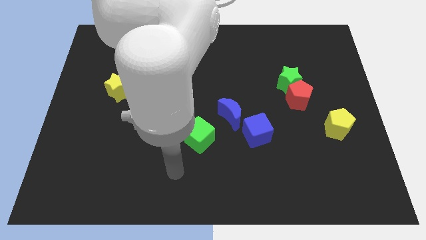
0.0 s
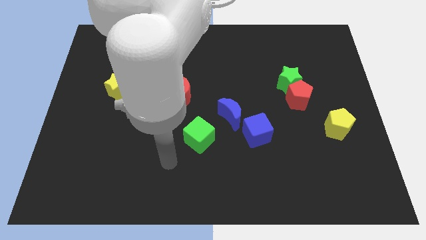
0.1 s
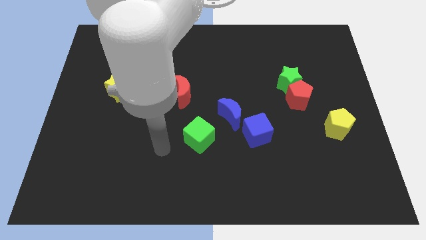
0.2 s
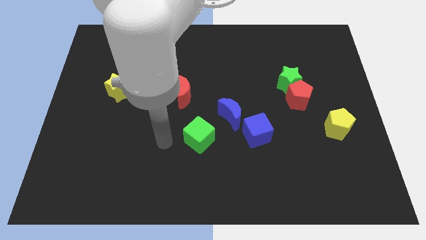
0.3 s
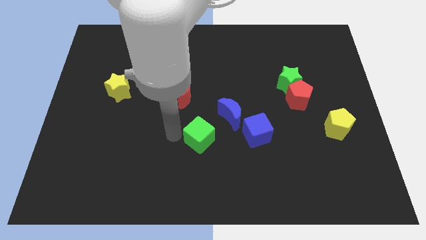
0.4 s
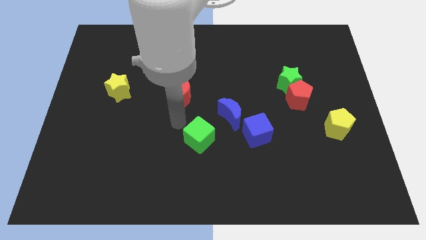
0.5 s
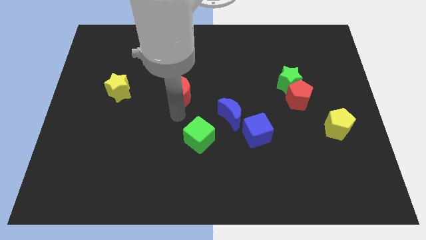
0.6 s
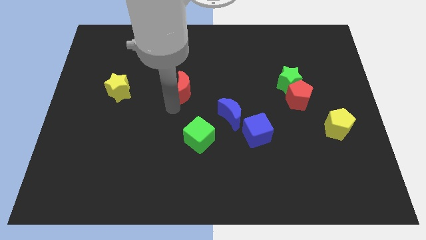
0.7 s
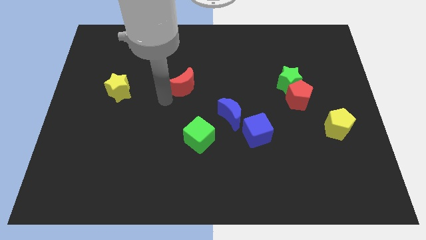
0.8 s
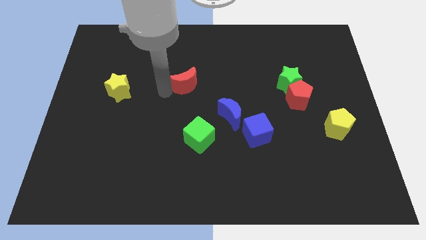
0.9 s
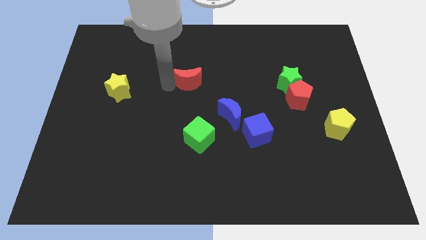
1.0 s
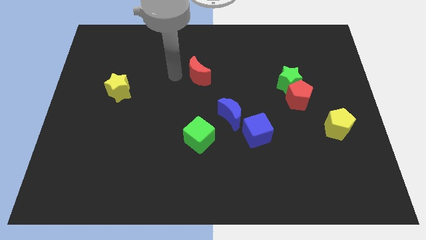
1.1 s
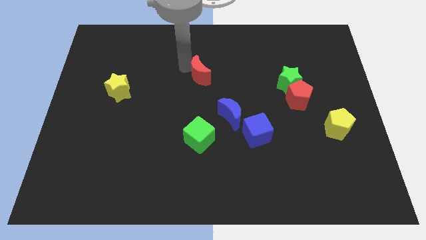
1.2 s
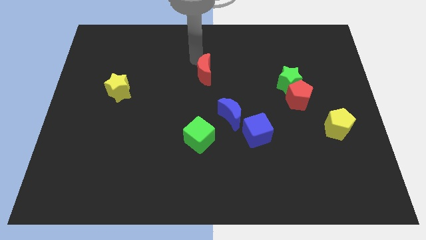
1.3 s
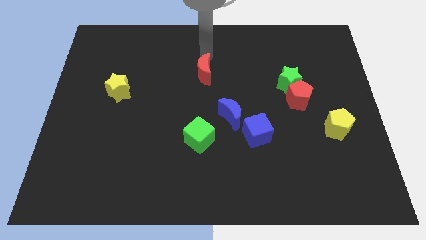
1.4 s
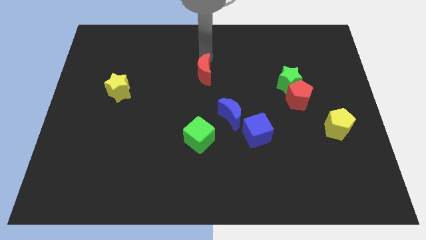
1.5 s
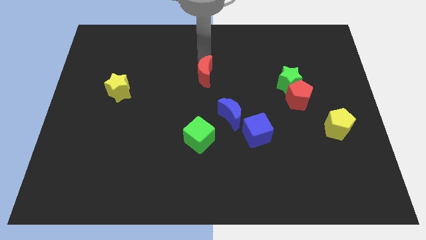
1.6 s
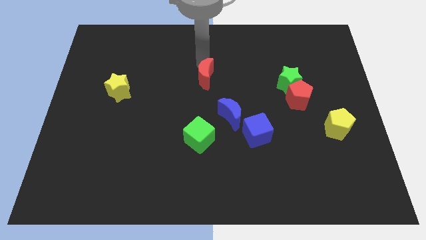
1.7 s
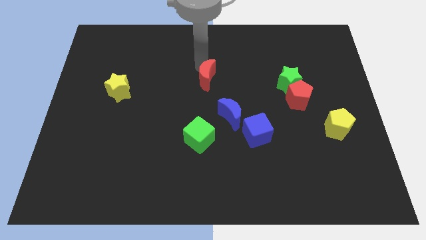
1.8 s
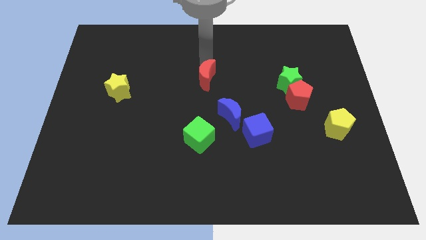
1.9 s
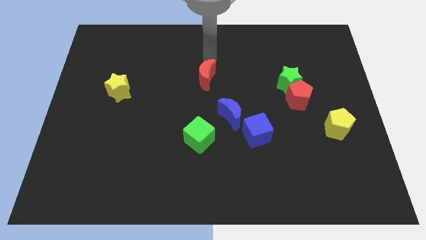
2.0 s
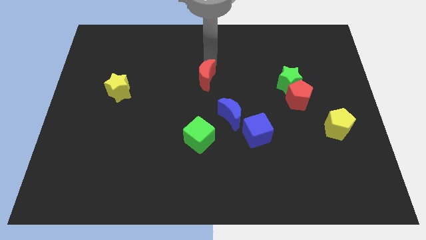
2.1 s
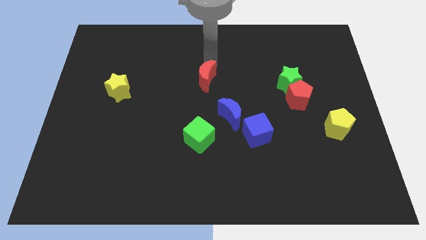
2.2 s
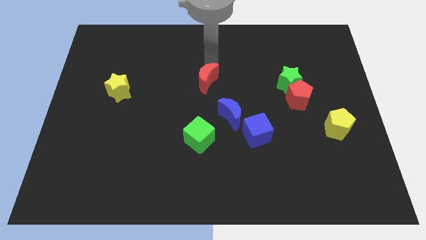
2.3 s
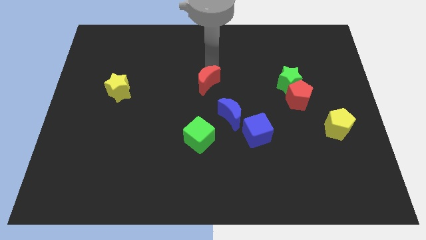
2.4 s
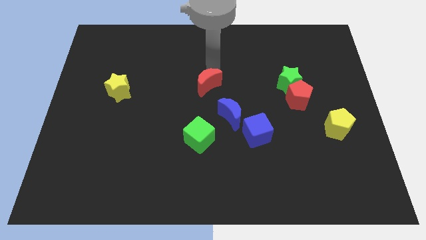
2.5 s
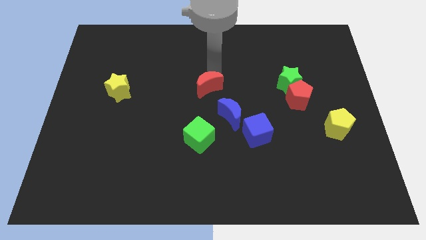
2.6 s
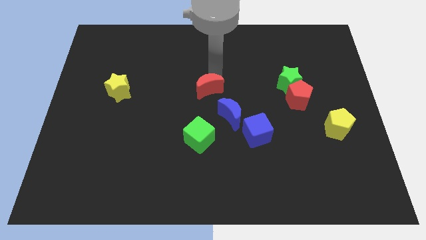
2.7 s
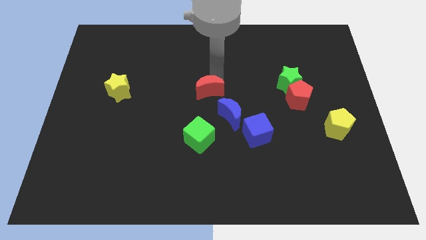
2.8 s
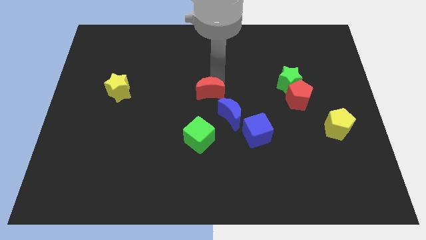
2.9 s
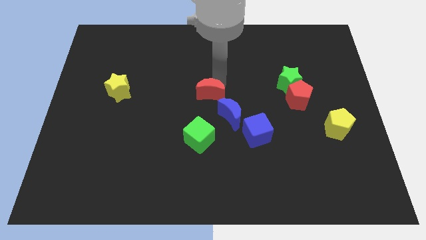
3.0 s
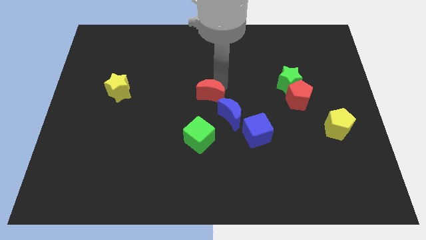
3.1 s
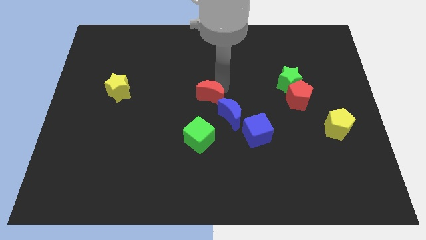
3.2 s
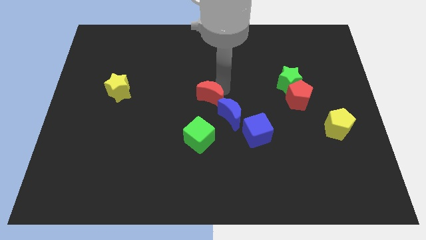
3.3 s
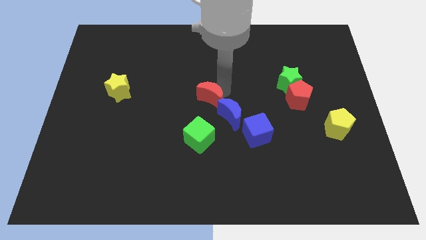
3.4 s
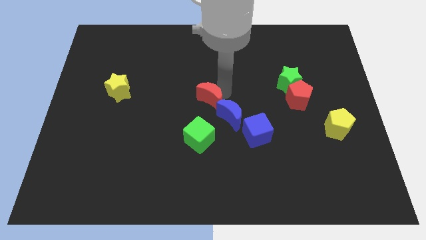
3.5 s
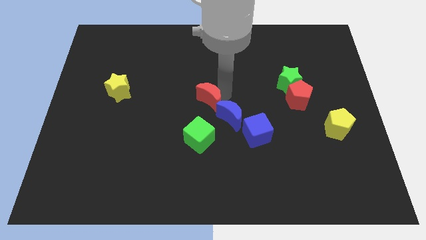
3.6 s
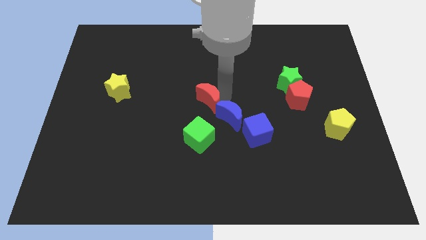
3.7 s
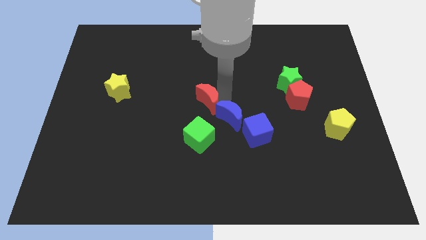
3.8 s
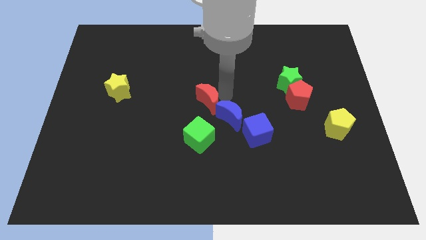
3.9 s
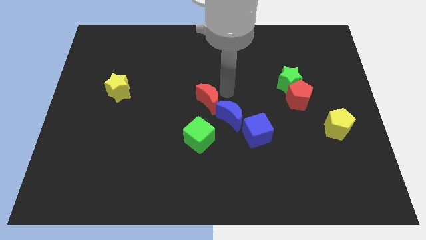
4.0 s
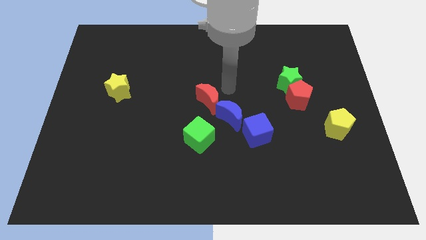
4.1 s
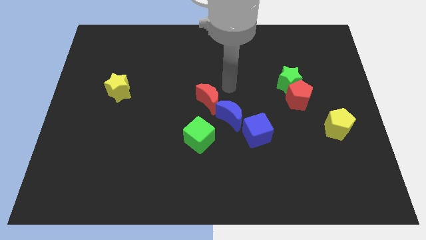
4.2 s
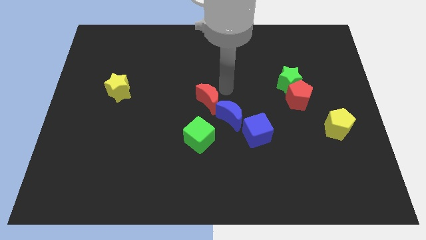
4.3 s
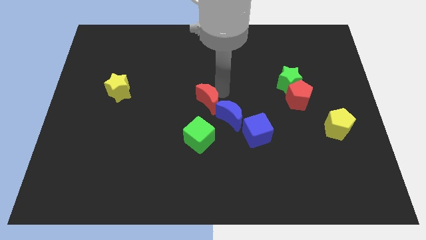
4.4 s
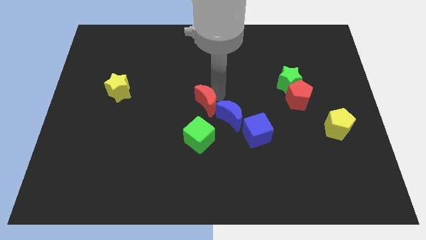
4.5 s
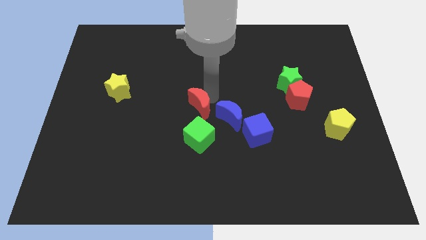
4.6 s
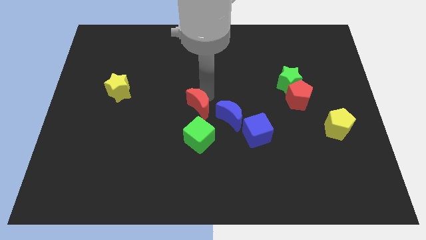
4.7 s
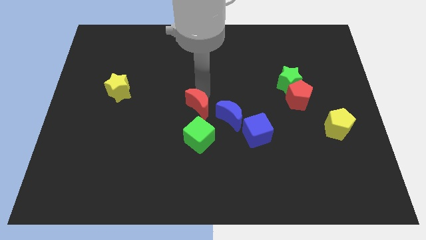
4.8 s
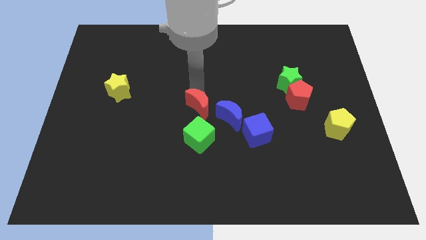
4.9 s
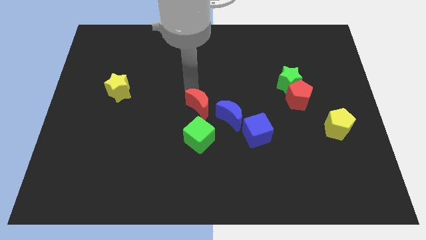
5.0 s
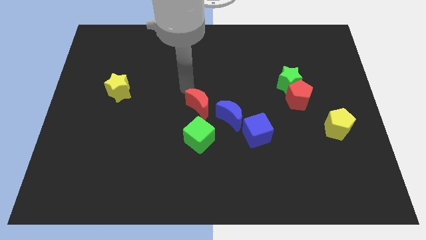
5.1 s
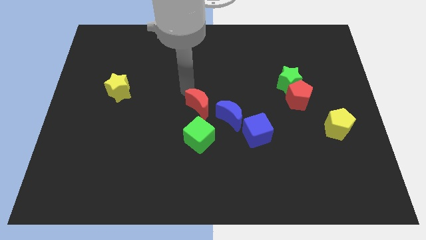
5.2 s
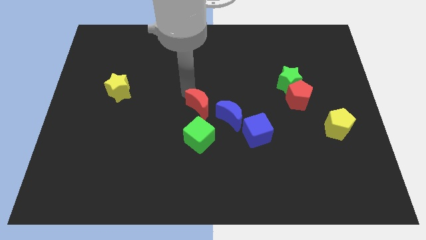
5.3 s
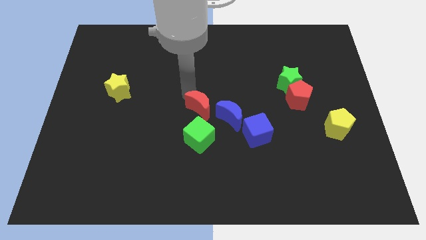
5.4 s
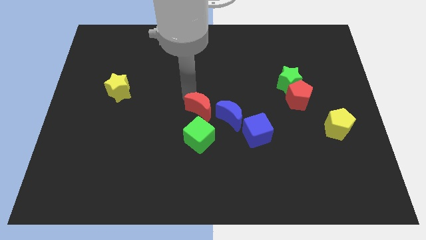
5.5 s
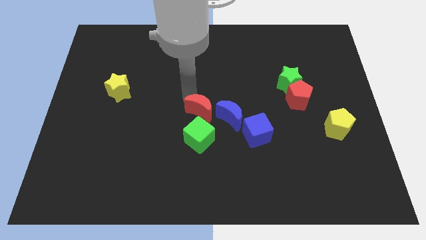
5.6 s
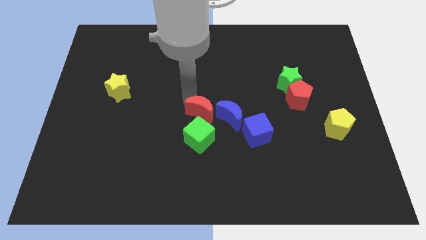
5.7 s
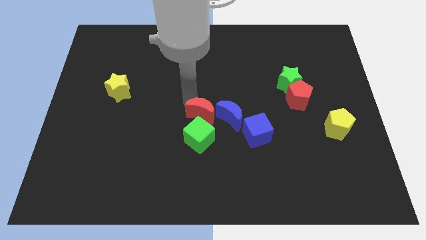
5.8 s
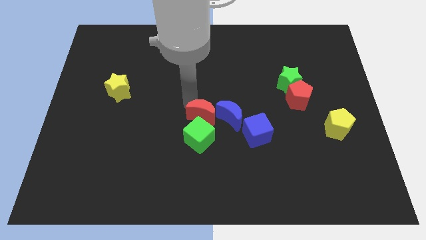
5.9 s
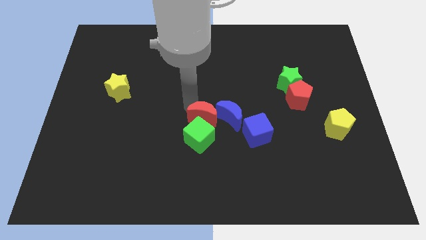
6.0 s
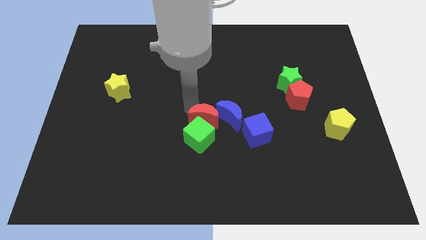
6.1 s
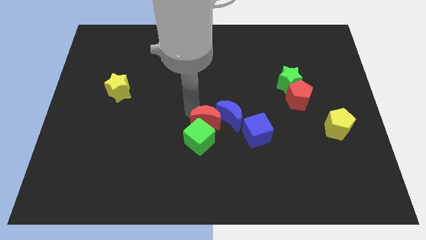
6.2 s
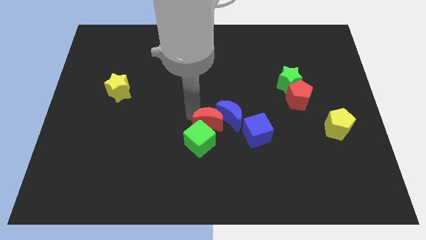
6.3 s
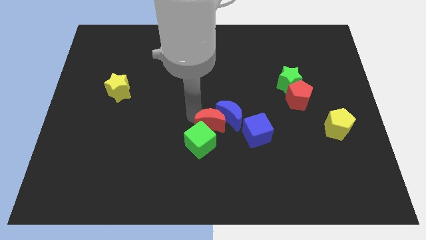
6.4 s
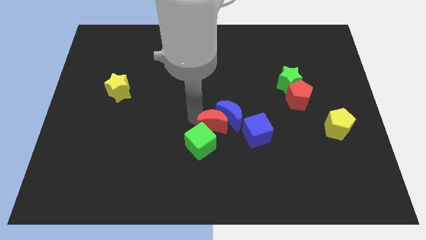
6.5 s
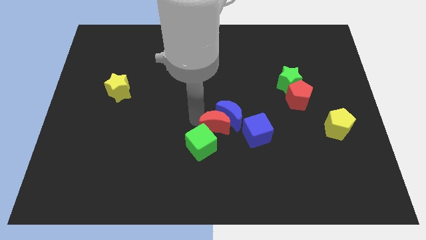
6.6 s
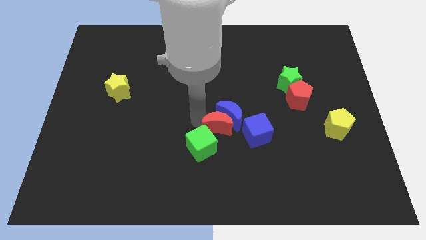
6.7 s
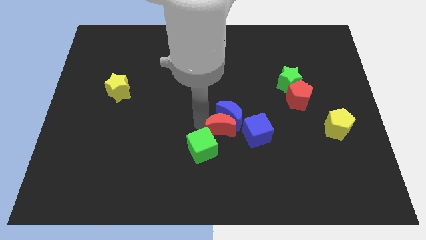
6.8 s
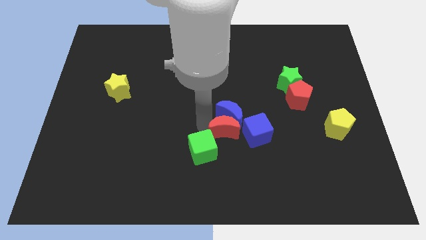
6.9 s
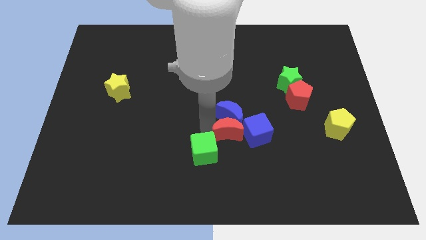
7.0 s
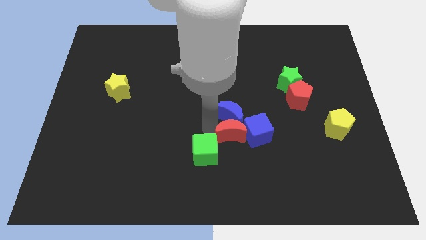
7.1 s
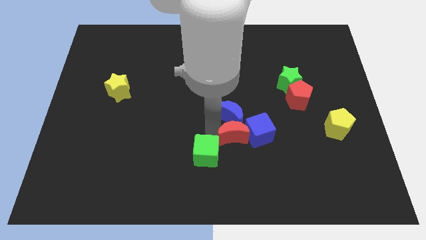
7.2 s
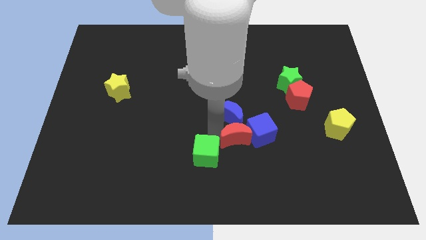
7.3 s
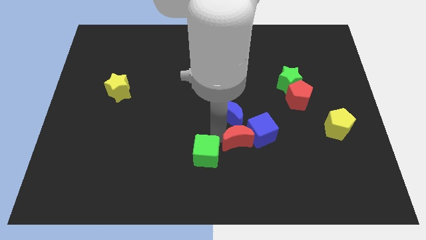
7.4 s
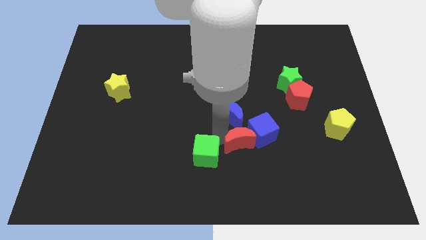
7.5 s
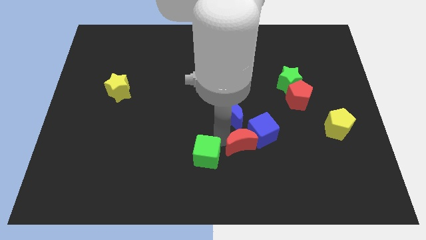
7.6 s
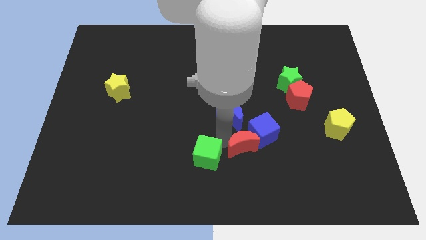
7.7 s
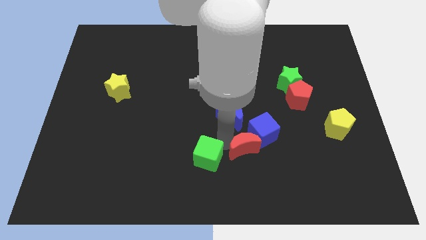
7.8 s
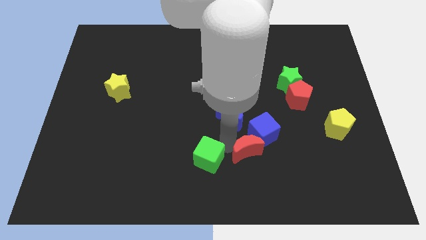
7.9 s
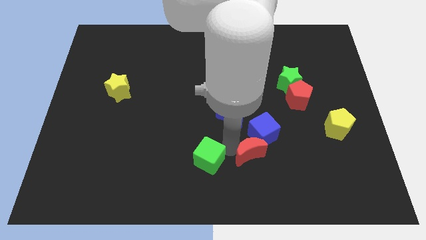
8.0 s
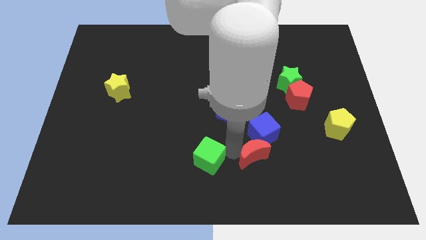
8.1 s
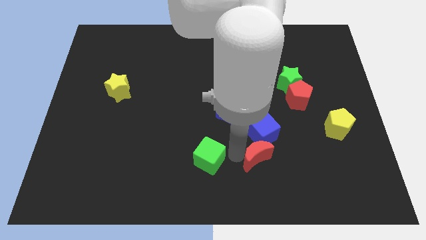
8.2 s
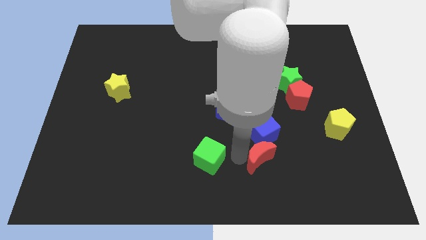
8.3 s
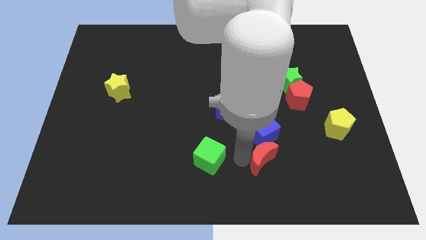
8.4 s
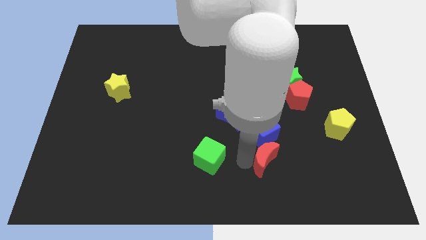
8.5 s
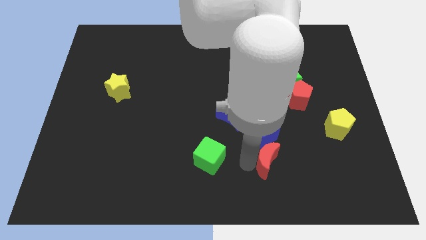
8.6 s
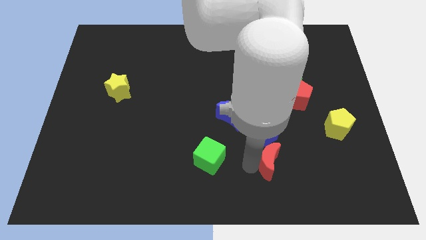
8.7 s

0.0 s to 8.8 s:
move the red moon to the bottom right side of the blue cube
